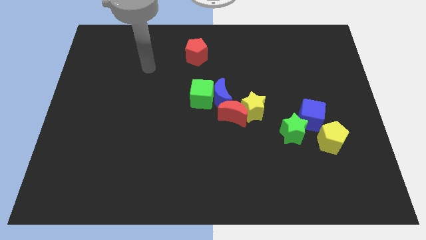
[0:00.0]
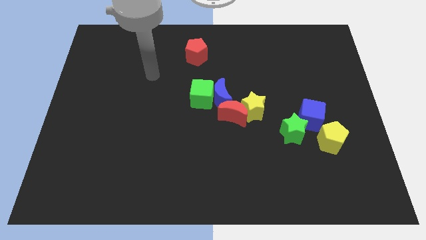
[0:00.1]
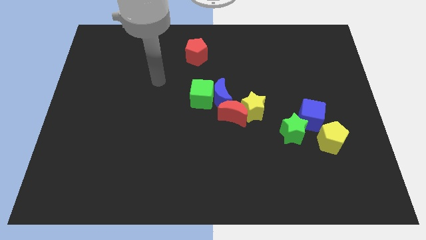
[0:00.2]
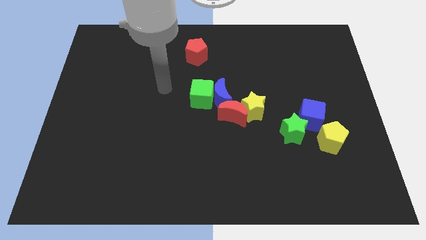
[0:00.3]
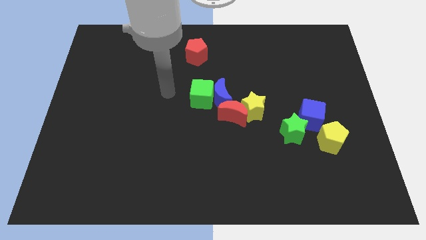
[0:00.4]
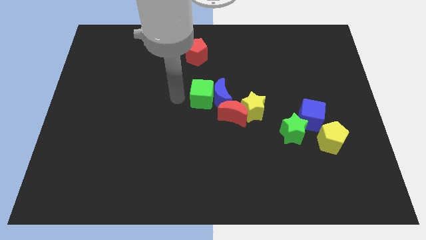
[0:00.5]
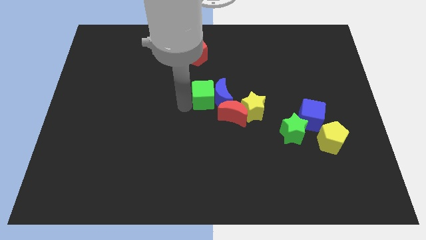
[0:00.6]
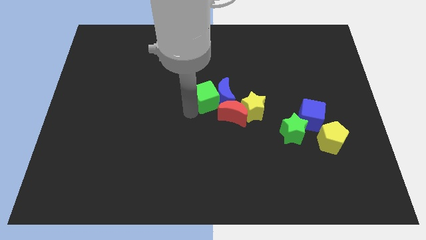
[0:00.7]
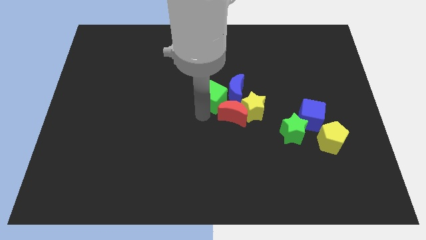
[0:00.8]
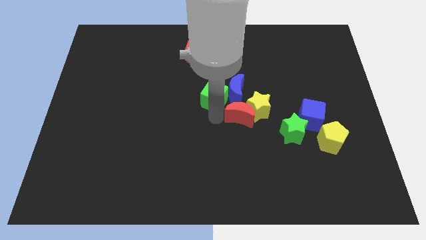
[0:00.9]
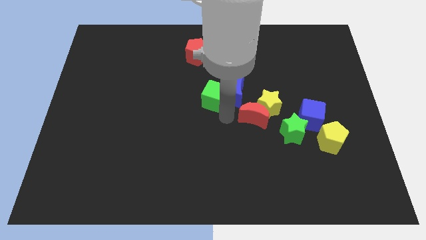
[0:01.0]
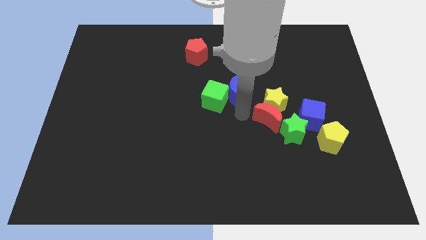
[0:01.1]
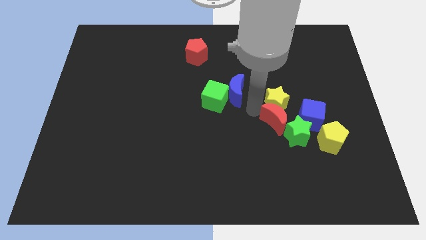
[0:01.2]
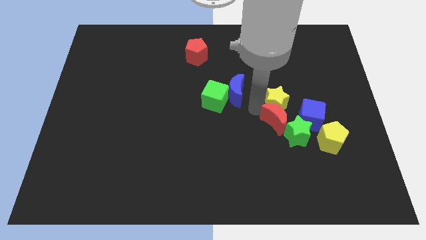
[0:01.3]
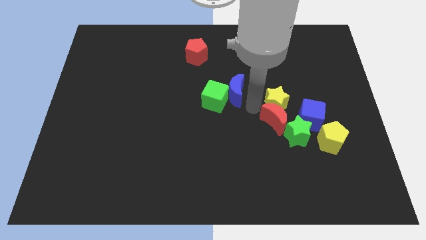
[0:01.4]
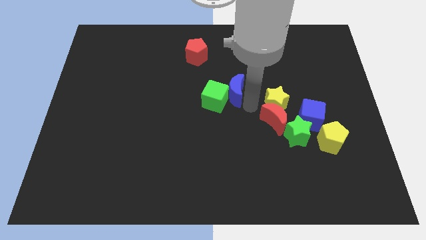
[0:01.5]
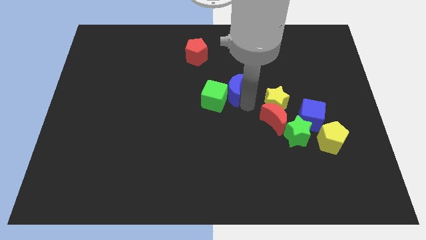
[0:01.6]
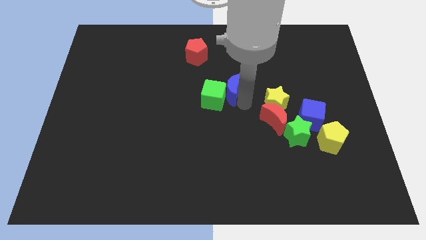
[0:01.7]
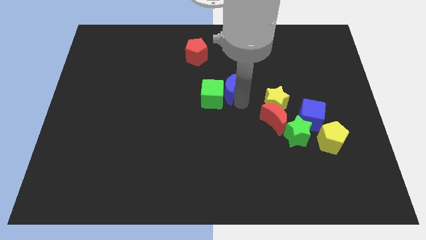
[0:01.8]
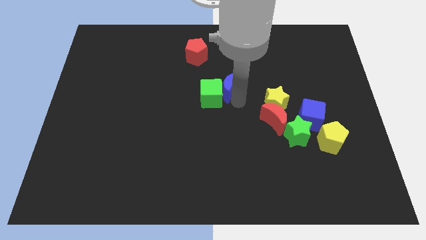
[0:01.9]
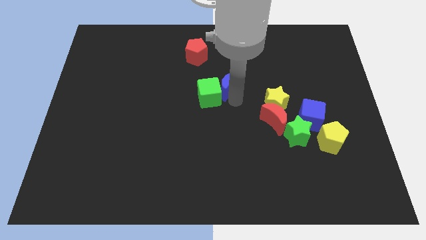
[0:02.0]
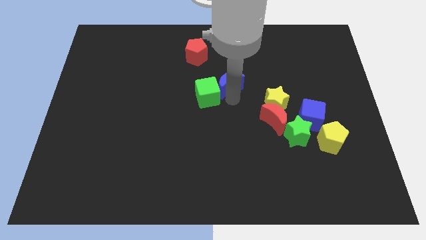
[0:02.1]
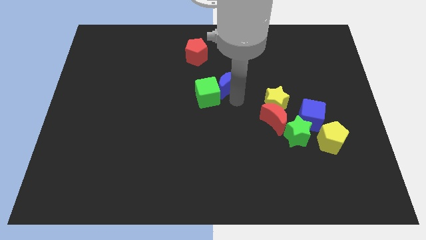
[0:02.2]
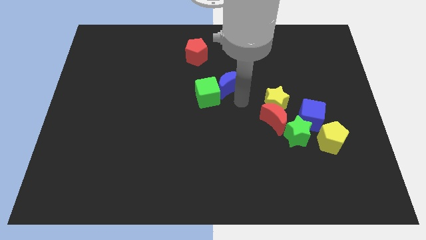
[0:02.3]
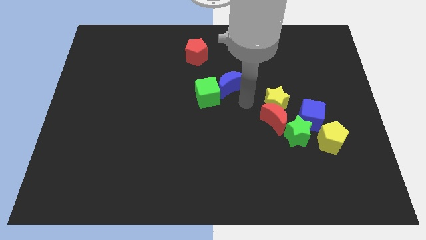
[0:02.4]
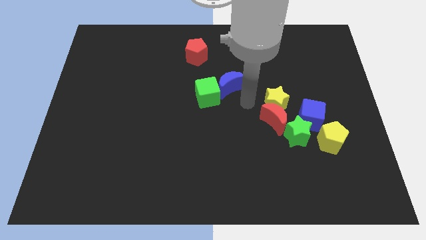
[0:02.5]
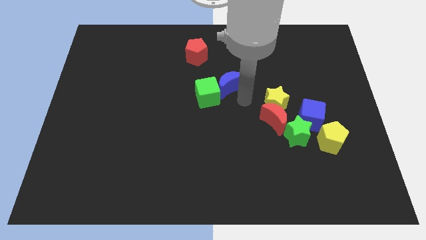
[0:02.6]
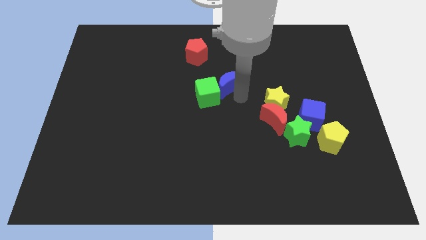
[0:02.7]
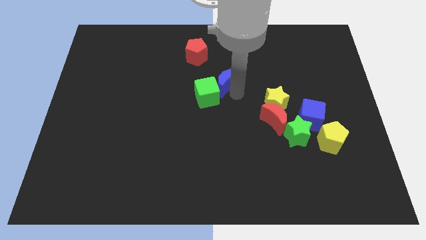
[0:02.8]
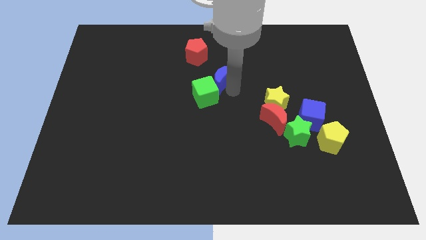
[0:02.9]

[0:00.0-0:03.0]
pull the blue moon apart from the group

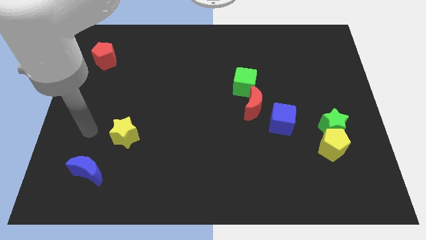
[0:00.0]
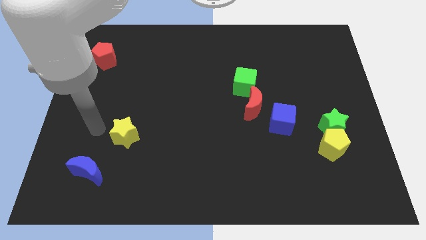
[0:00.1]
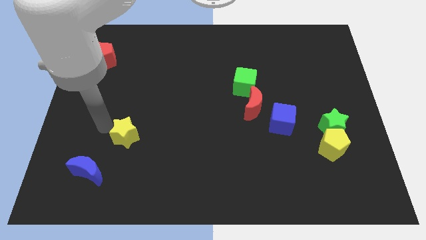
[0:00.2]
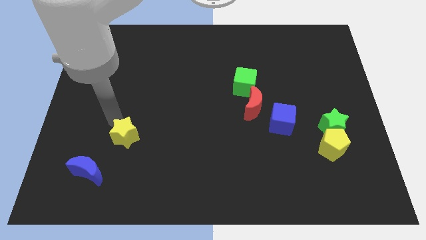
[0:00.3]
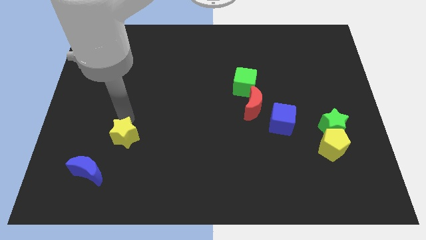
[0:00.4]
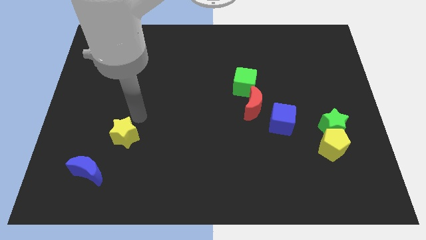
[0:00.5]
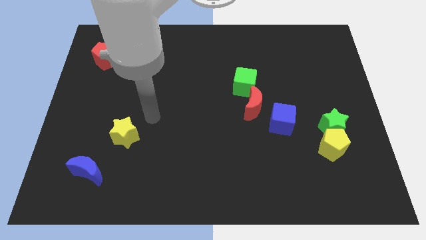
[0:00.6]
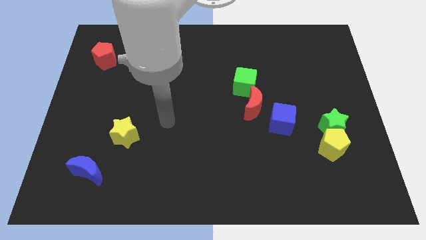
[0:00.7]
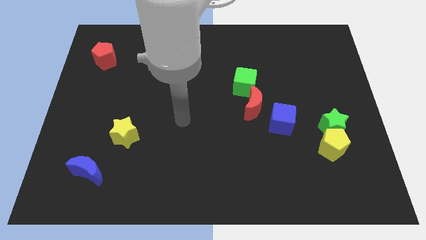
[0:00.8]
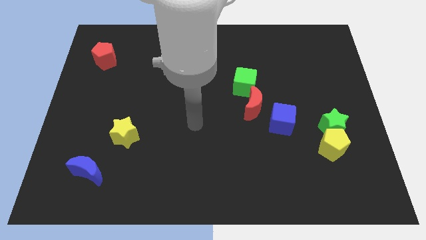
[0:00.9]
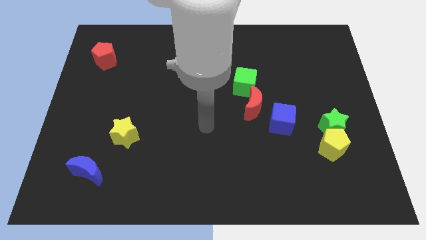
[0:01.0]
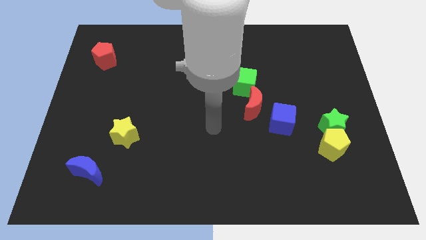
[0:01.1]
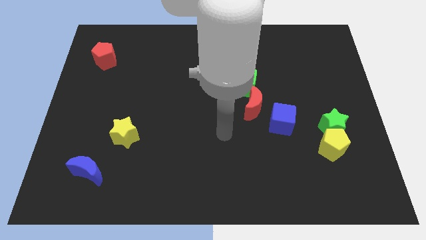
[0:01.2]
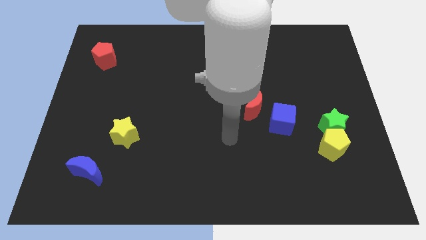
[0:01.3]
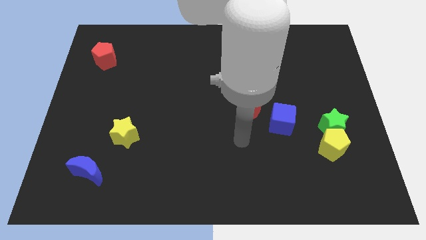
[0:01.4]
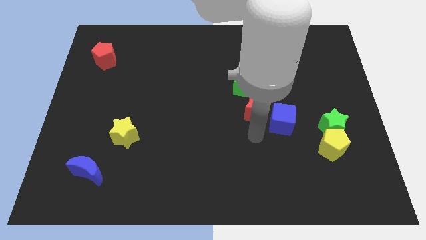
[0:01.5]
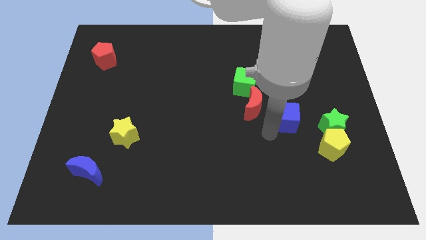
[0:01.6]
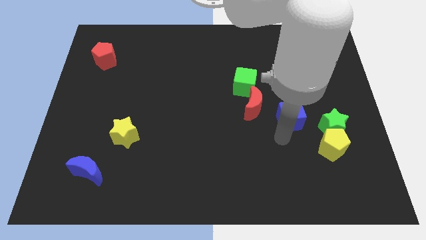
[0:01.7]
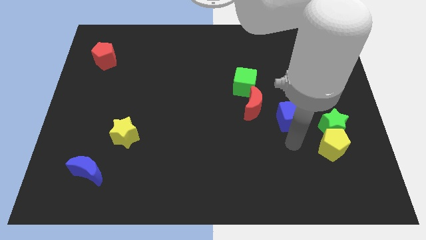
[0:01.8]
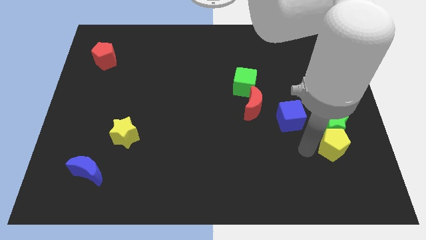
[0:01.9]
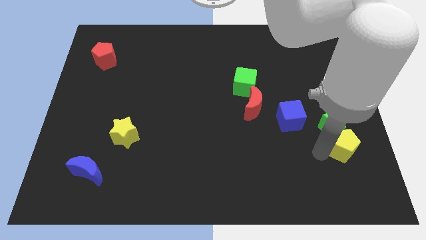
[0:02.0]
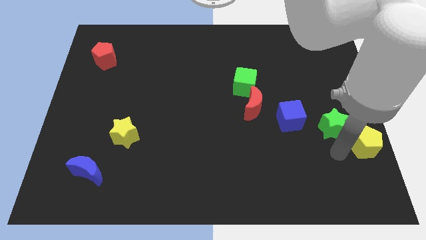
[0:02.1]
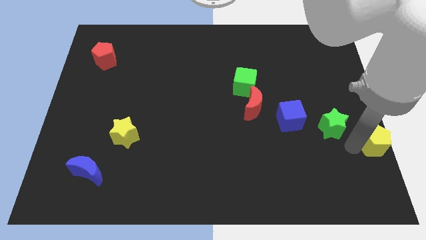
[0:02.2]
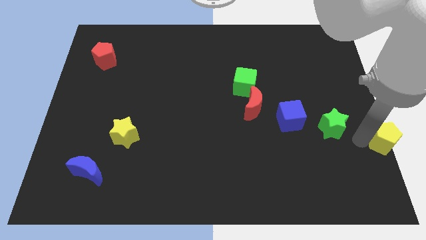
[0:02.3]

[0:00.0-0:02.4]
pull the green star apart from the yellow pentagon

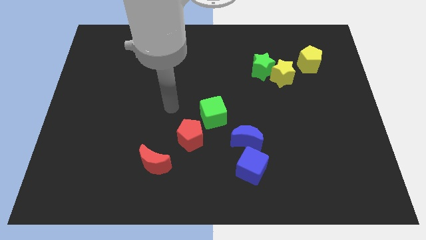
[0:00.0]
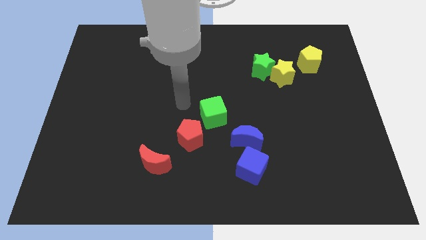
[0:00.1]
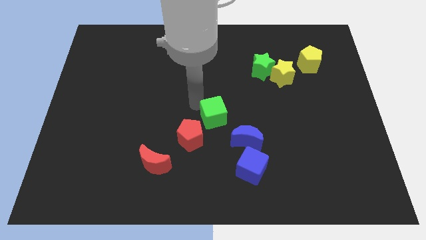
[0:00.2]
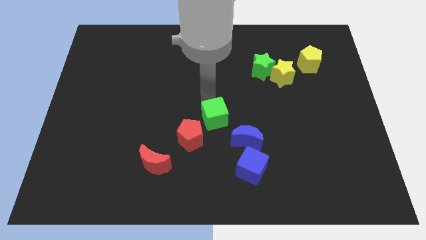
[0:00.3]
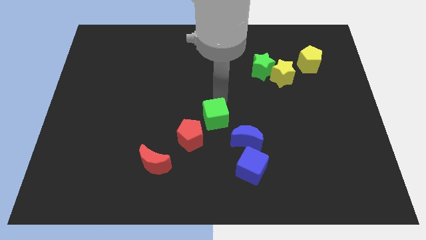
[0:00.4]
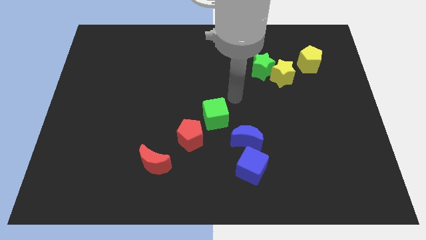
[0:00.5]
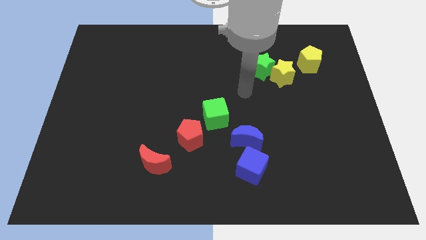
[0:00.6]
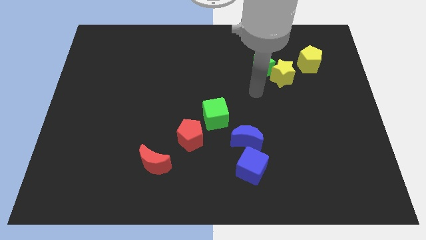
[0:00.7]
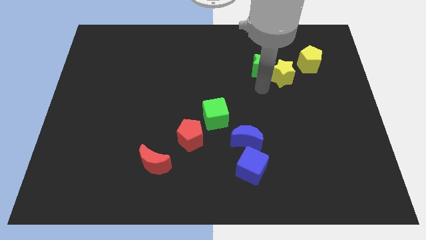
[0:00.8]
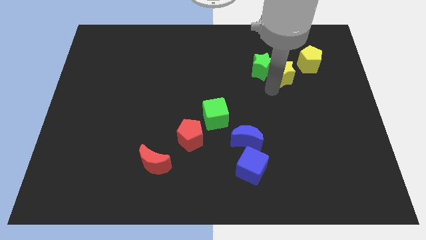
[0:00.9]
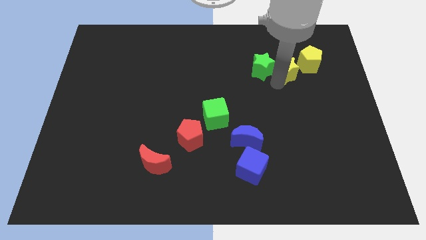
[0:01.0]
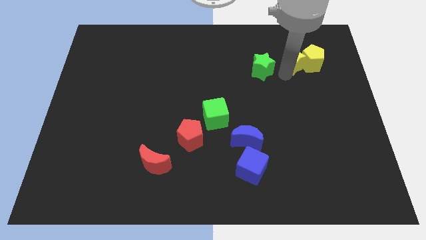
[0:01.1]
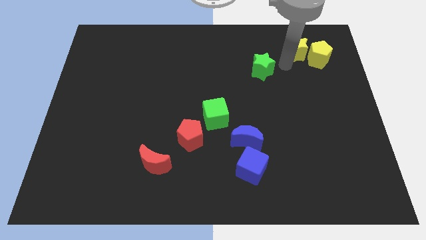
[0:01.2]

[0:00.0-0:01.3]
move the green star away from the yellow star

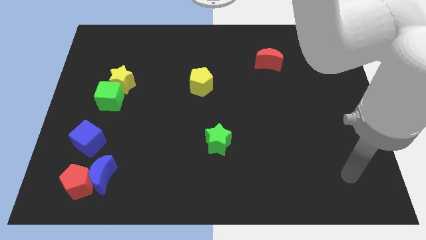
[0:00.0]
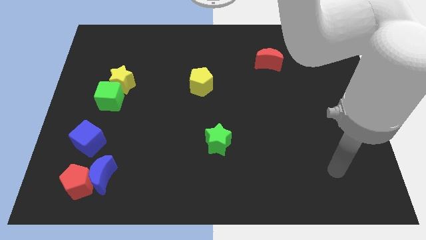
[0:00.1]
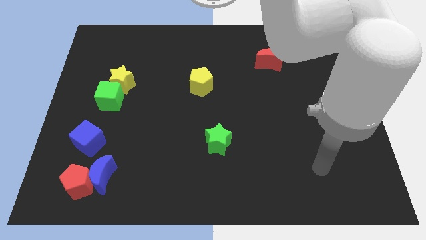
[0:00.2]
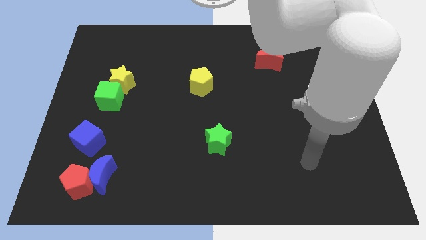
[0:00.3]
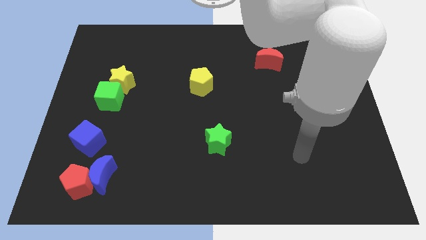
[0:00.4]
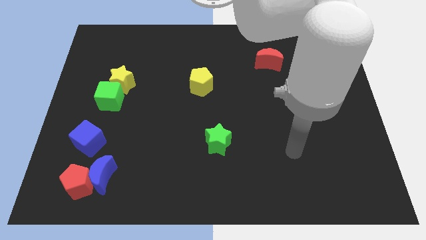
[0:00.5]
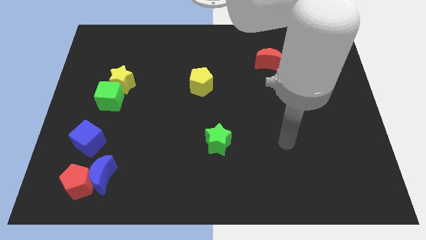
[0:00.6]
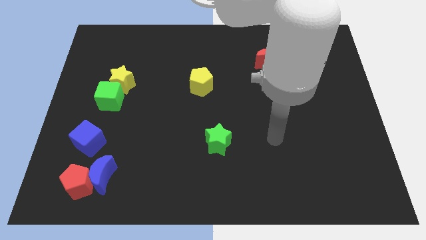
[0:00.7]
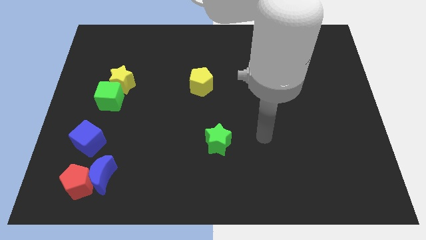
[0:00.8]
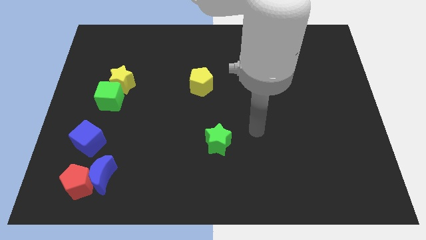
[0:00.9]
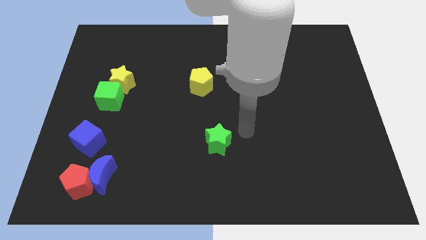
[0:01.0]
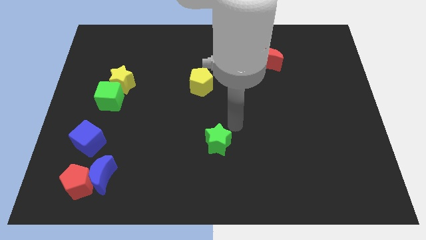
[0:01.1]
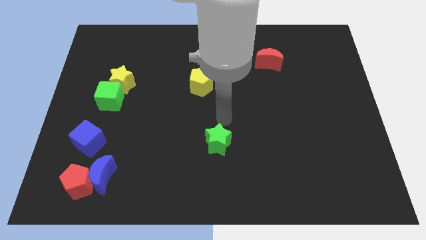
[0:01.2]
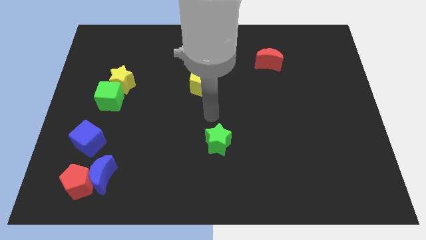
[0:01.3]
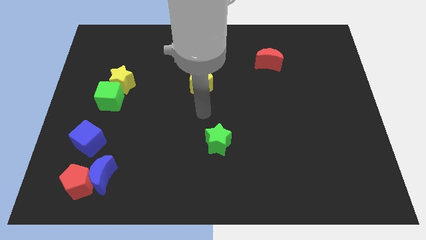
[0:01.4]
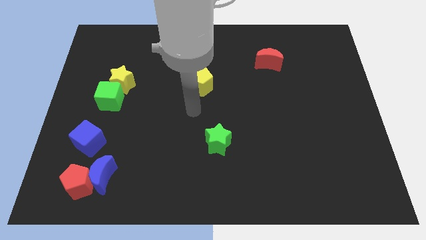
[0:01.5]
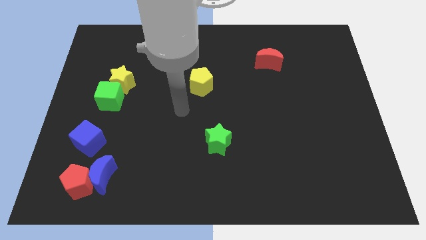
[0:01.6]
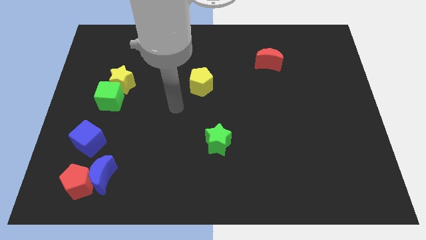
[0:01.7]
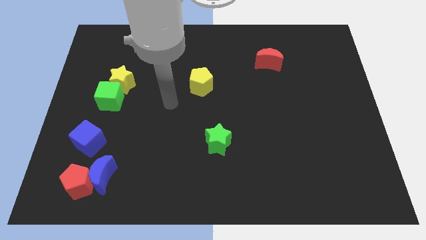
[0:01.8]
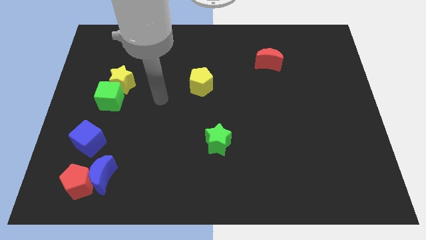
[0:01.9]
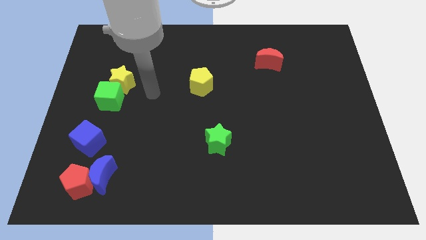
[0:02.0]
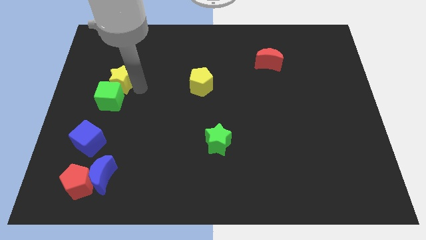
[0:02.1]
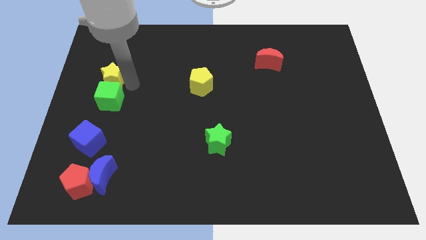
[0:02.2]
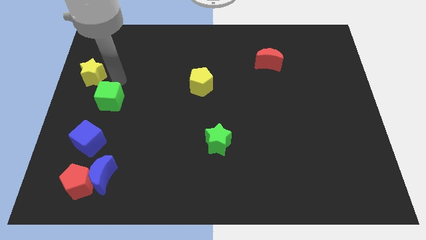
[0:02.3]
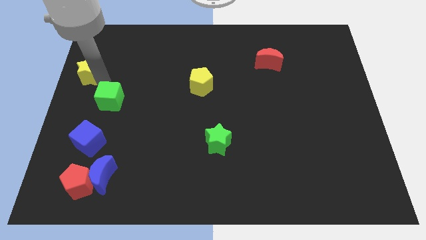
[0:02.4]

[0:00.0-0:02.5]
move the green cube away from the yellow star

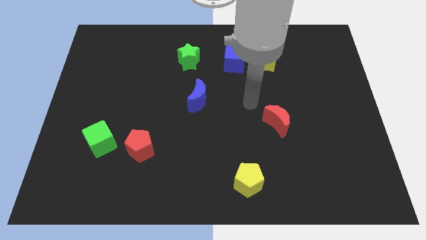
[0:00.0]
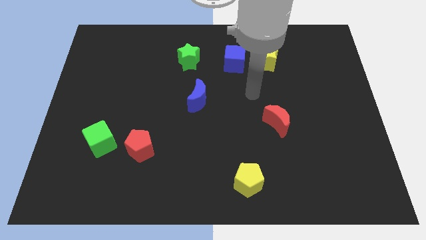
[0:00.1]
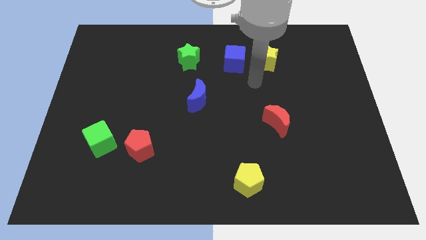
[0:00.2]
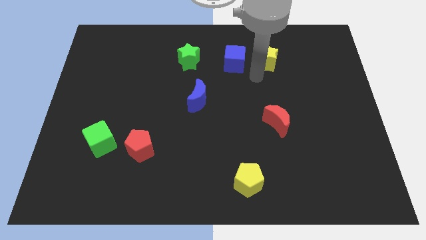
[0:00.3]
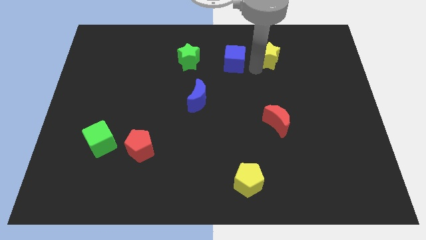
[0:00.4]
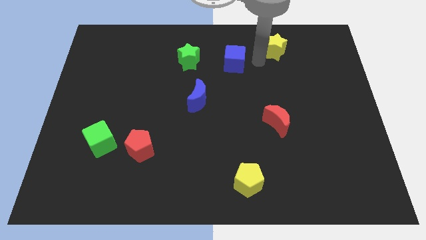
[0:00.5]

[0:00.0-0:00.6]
move the blue cube away from the yellow star
